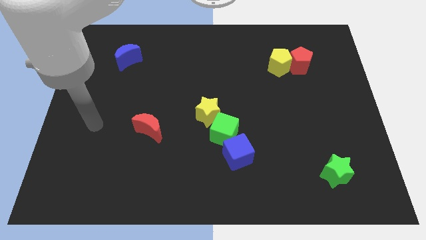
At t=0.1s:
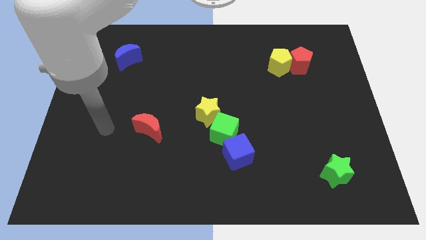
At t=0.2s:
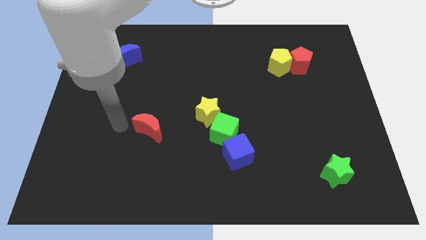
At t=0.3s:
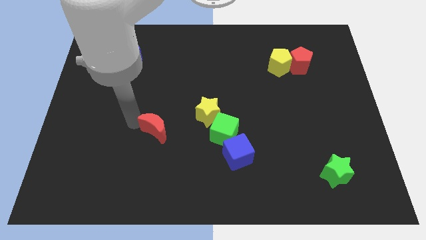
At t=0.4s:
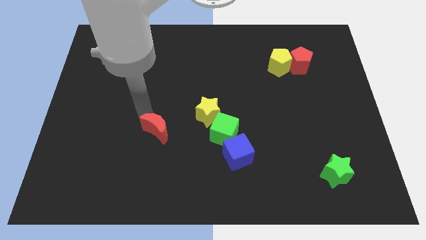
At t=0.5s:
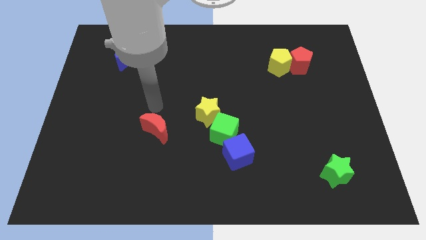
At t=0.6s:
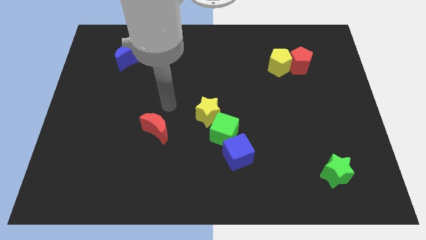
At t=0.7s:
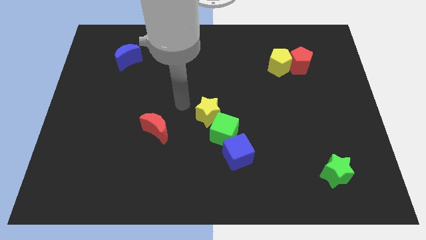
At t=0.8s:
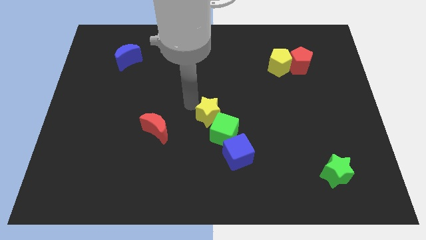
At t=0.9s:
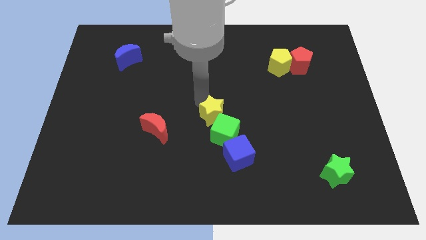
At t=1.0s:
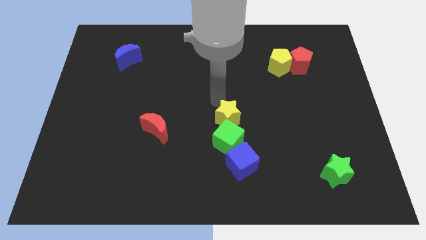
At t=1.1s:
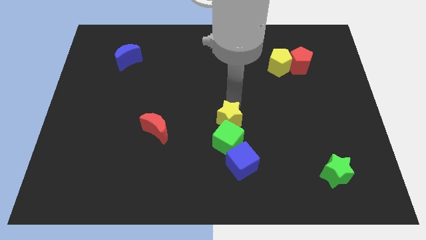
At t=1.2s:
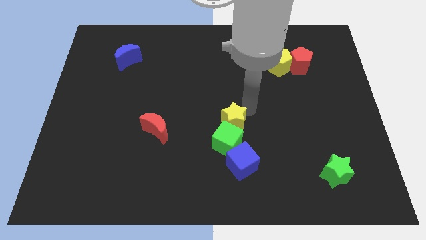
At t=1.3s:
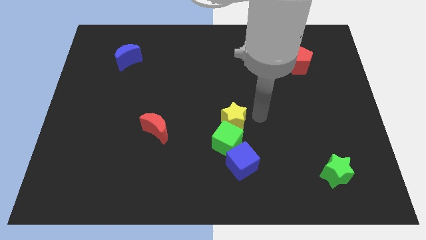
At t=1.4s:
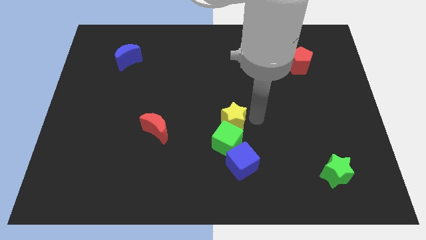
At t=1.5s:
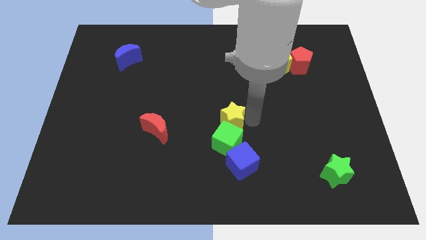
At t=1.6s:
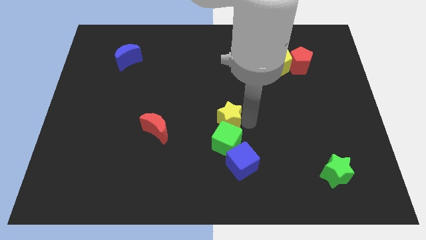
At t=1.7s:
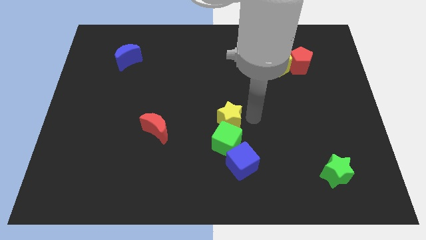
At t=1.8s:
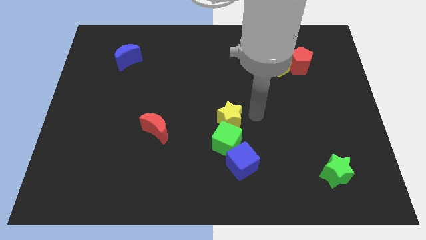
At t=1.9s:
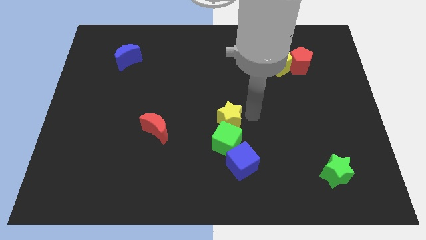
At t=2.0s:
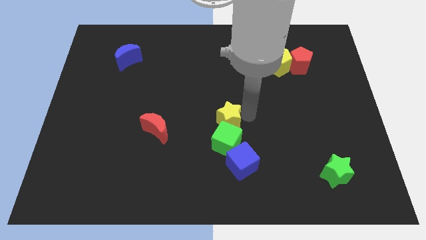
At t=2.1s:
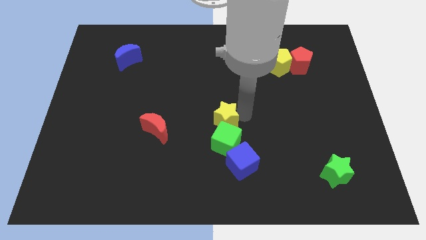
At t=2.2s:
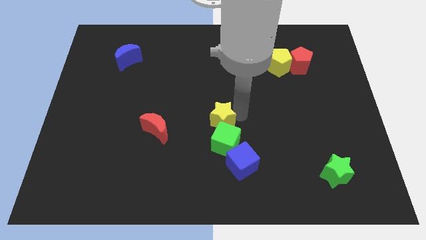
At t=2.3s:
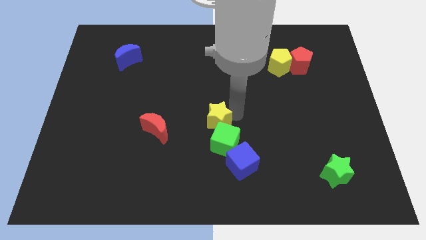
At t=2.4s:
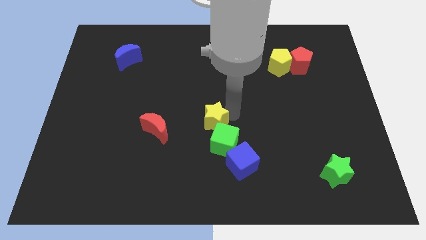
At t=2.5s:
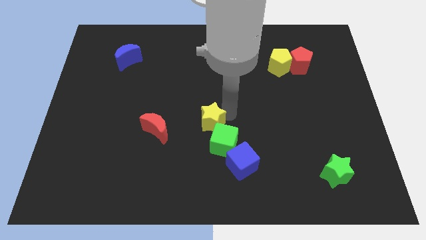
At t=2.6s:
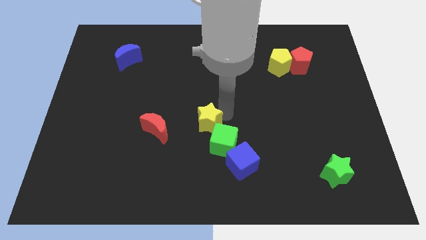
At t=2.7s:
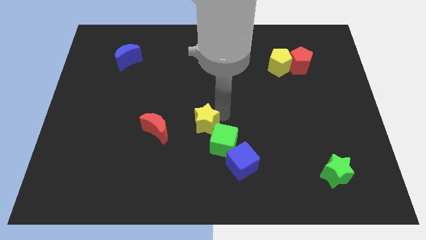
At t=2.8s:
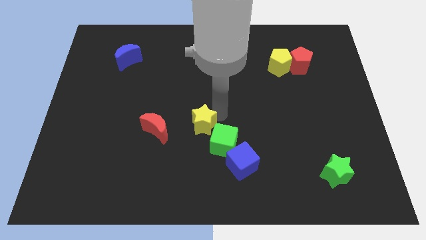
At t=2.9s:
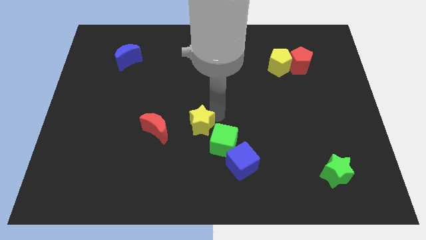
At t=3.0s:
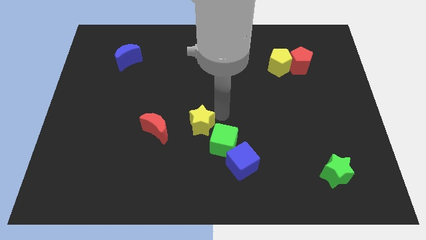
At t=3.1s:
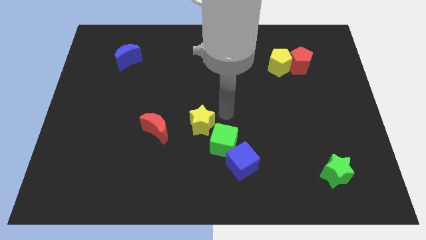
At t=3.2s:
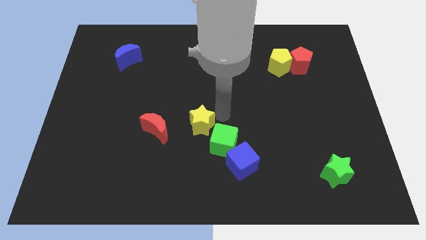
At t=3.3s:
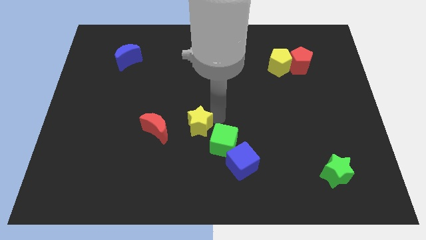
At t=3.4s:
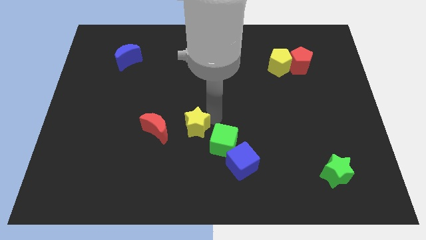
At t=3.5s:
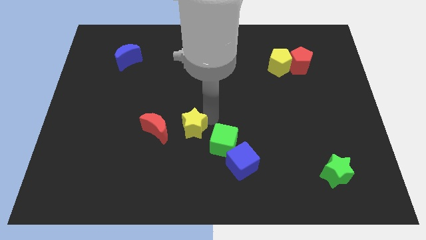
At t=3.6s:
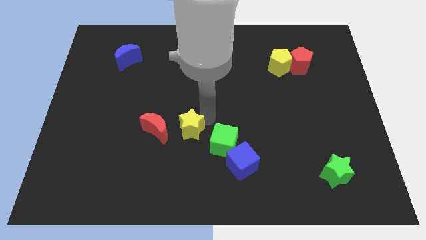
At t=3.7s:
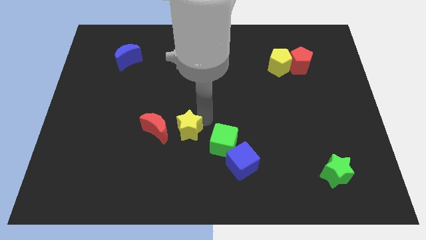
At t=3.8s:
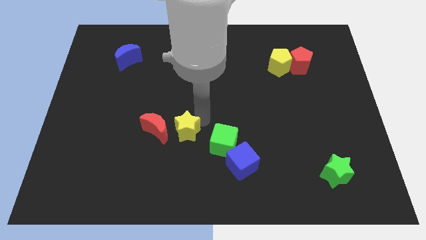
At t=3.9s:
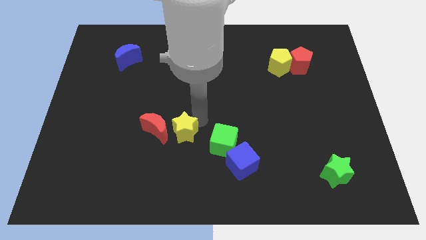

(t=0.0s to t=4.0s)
slightly move the yellow star downwards and left diagonally

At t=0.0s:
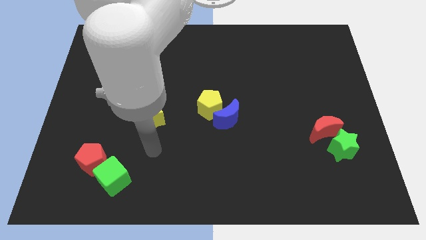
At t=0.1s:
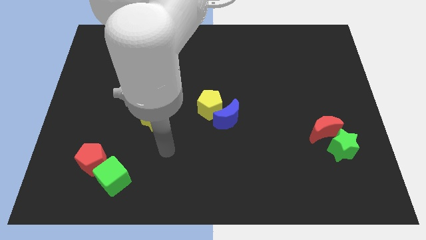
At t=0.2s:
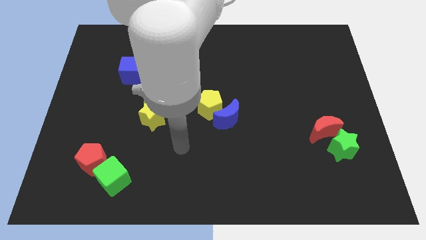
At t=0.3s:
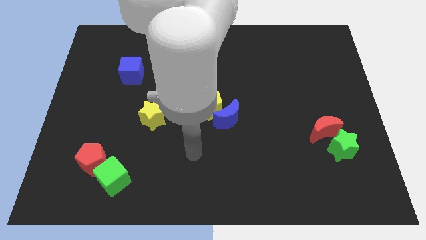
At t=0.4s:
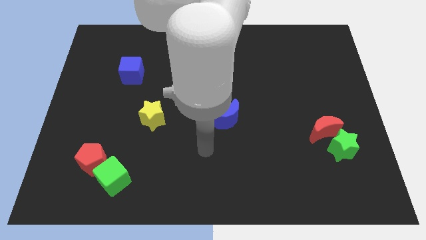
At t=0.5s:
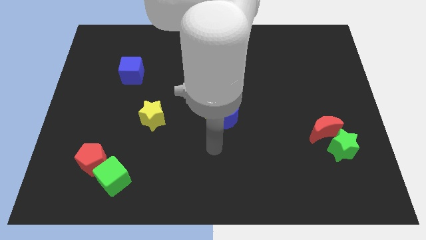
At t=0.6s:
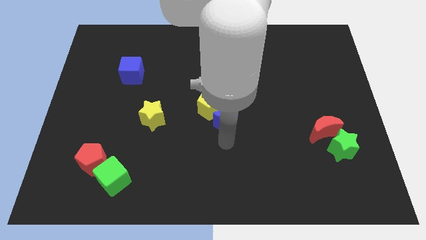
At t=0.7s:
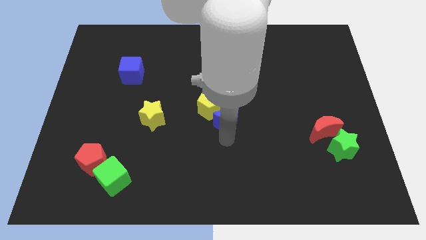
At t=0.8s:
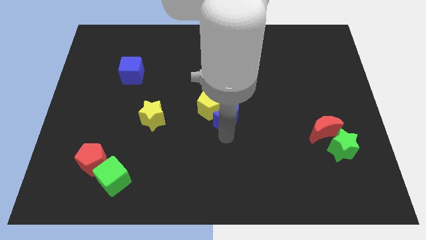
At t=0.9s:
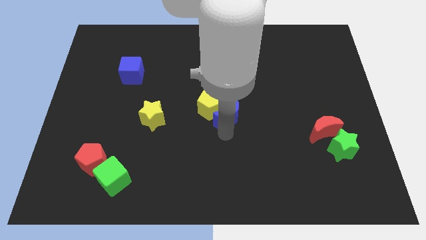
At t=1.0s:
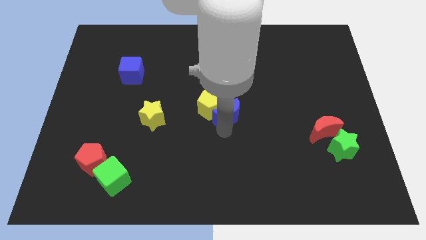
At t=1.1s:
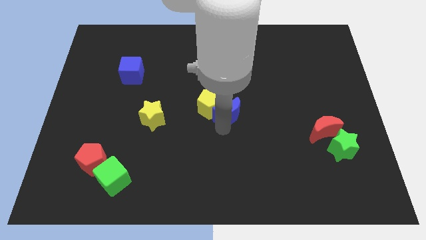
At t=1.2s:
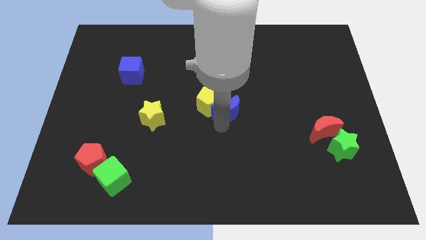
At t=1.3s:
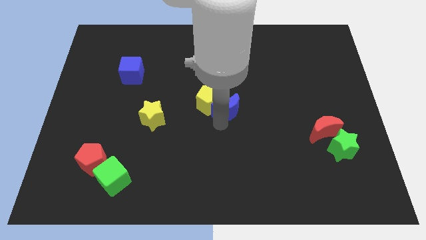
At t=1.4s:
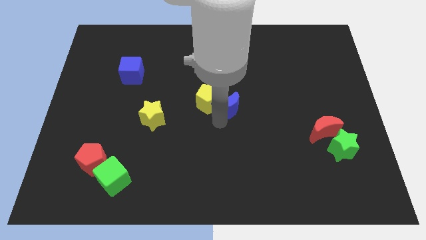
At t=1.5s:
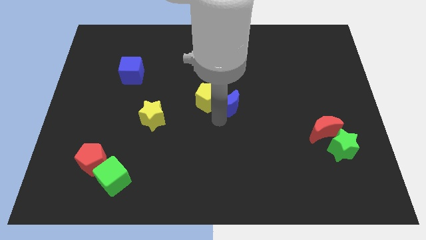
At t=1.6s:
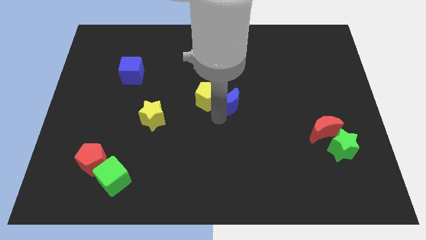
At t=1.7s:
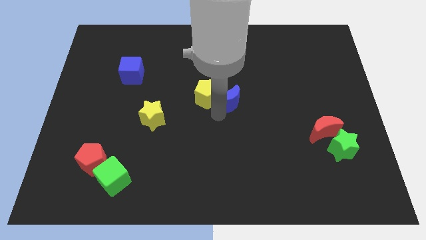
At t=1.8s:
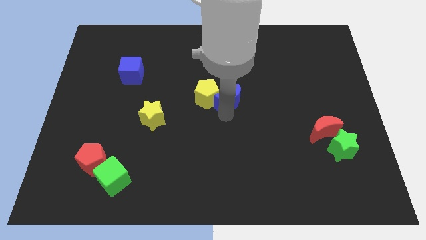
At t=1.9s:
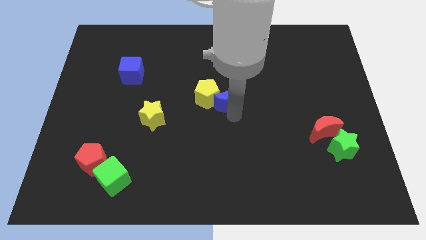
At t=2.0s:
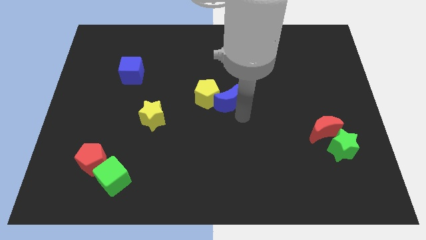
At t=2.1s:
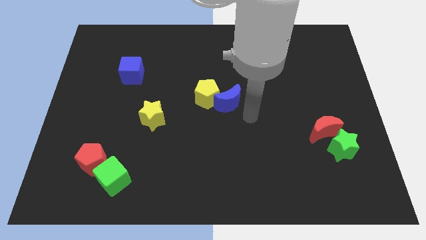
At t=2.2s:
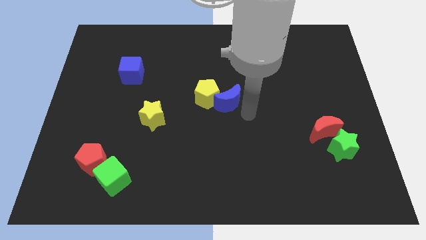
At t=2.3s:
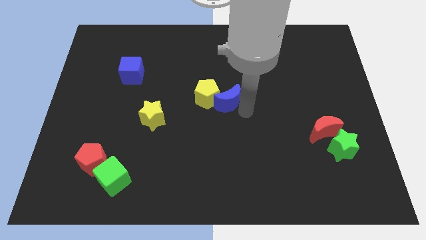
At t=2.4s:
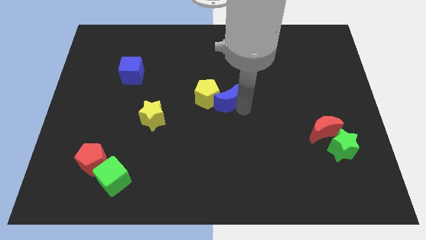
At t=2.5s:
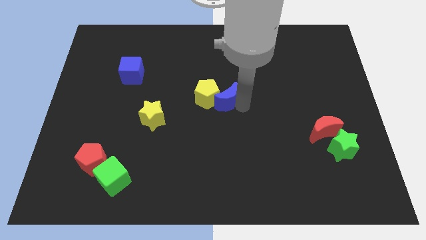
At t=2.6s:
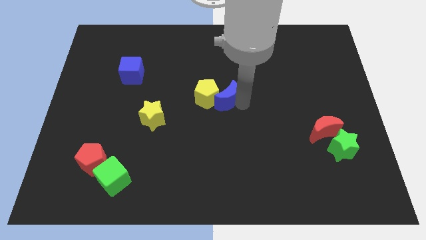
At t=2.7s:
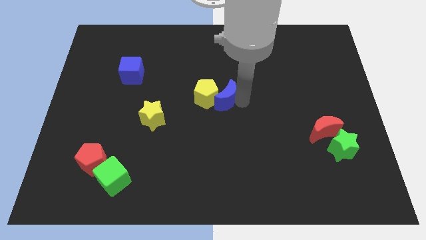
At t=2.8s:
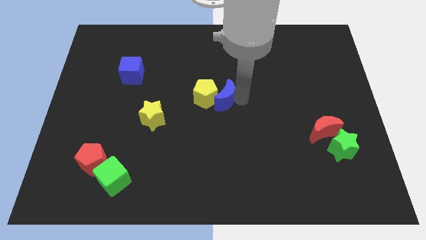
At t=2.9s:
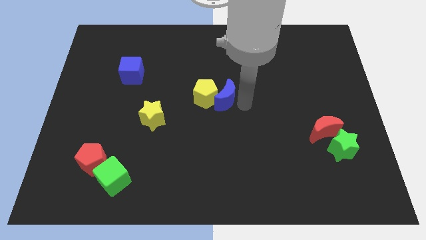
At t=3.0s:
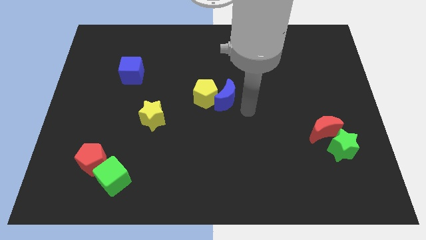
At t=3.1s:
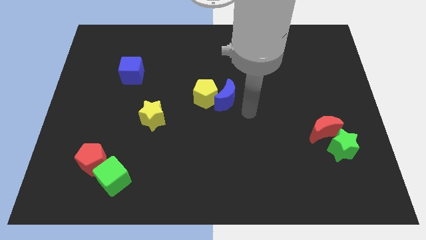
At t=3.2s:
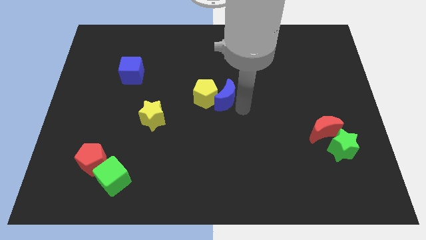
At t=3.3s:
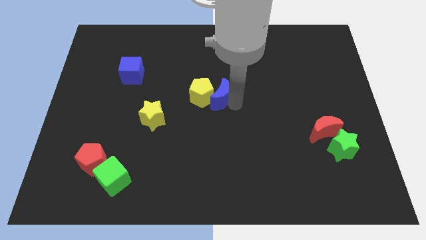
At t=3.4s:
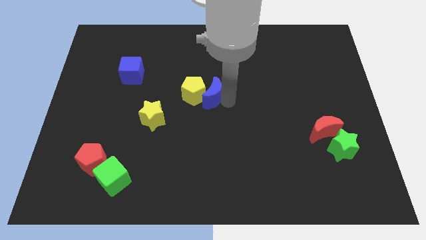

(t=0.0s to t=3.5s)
slightly slide the blue moon upwards and left diagonally

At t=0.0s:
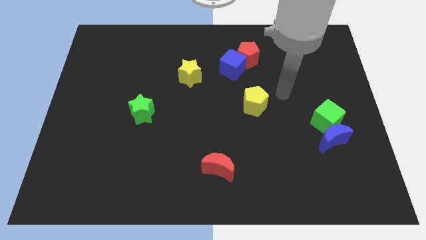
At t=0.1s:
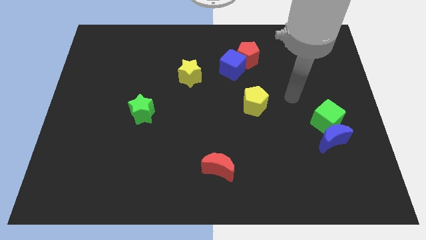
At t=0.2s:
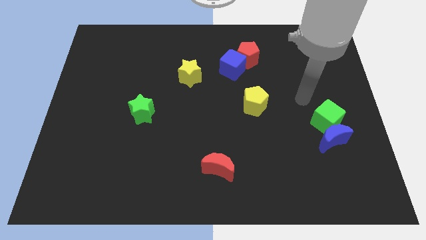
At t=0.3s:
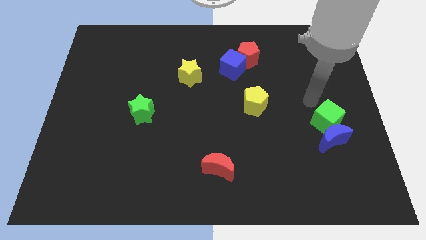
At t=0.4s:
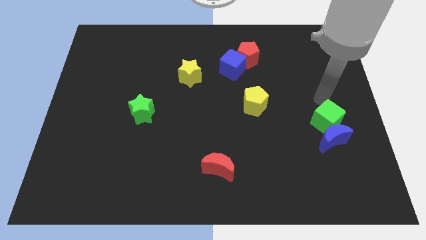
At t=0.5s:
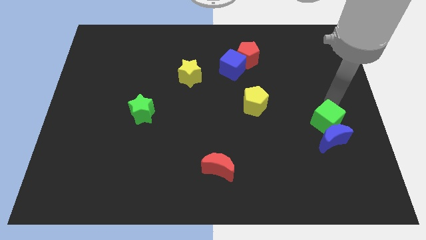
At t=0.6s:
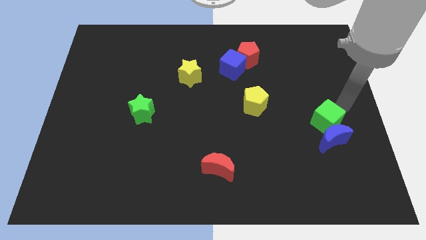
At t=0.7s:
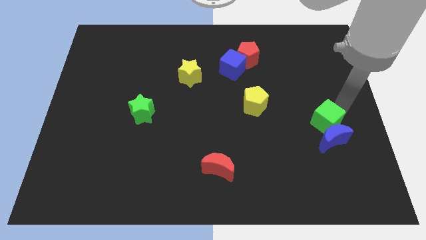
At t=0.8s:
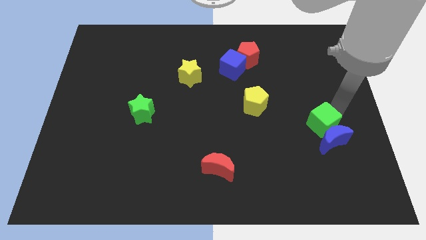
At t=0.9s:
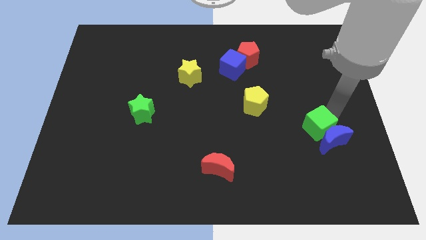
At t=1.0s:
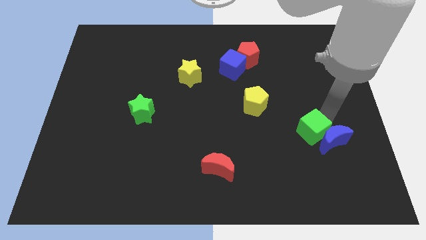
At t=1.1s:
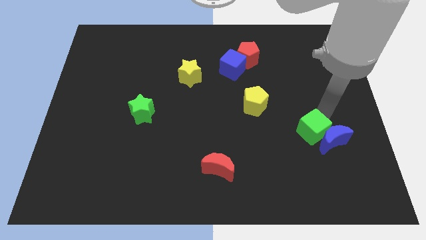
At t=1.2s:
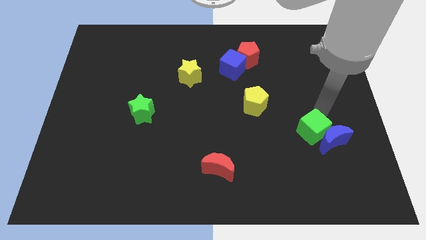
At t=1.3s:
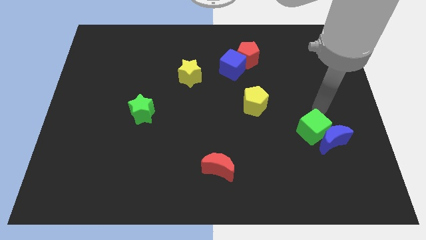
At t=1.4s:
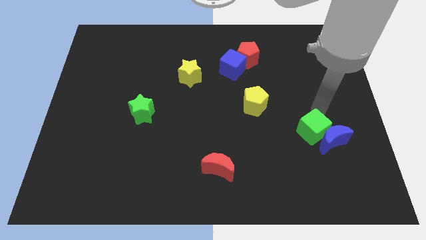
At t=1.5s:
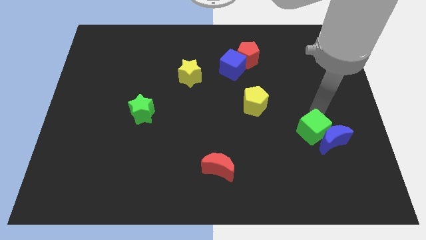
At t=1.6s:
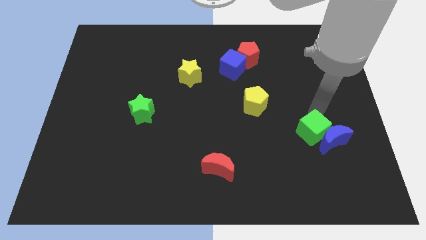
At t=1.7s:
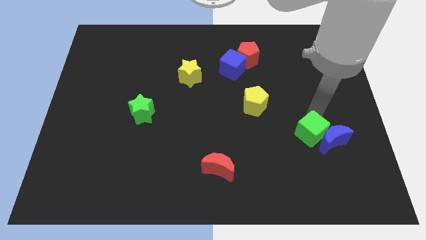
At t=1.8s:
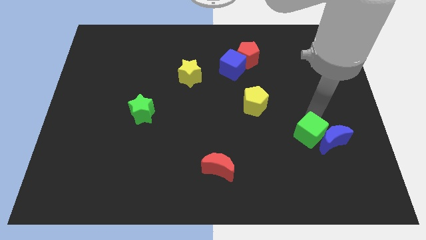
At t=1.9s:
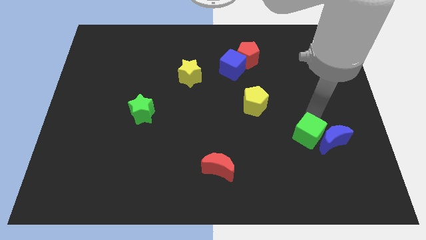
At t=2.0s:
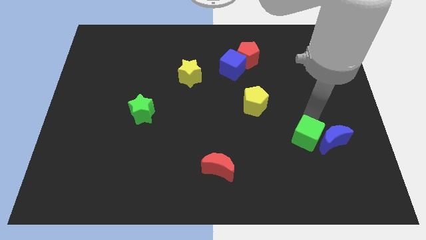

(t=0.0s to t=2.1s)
slightly push the green cube down and left
